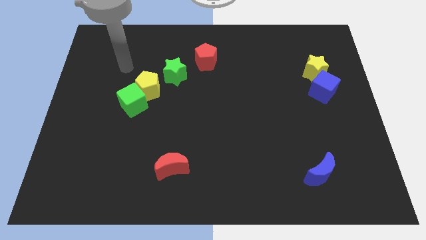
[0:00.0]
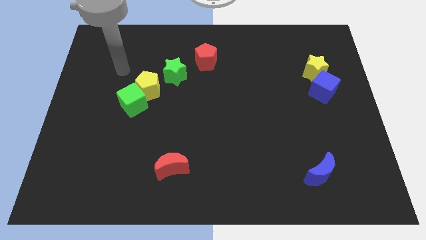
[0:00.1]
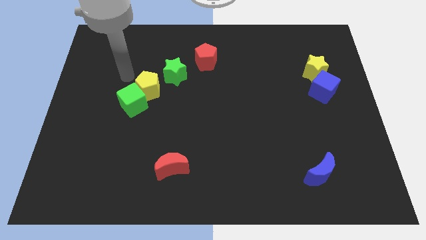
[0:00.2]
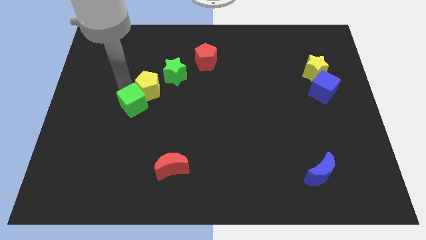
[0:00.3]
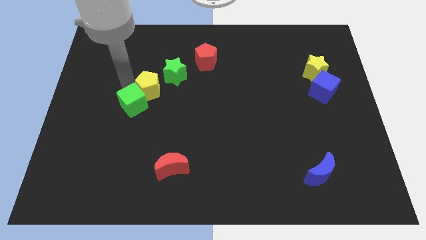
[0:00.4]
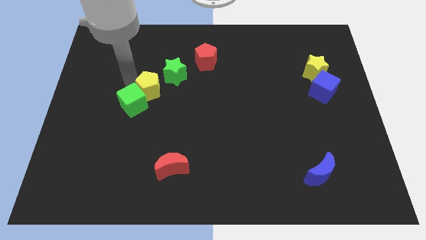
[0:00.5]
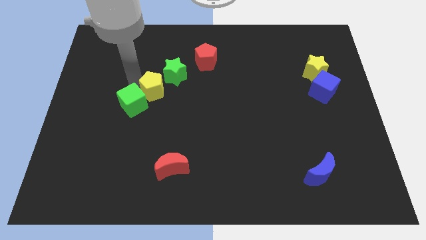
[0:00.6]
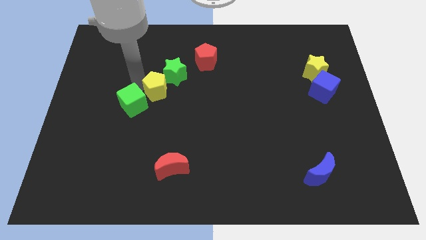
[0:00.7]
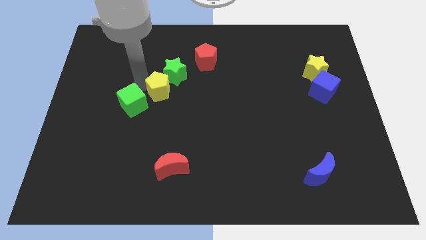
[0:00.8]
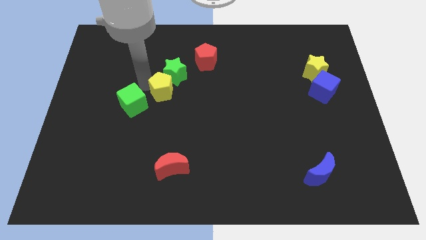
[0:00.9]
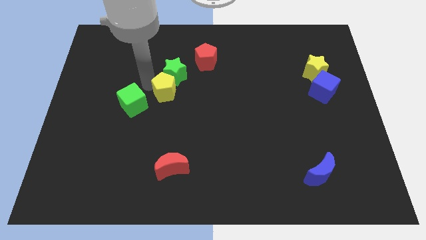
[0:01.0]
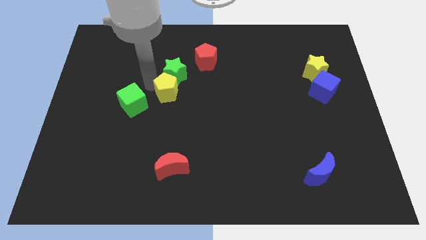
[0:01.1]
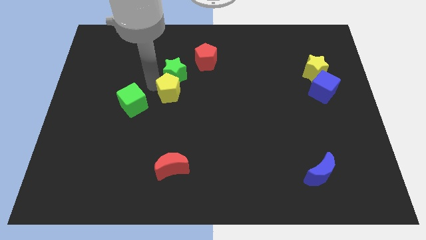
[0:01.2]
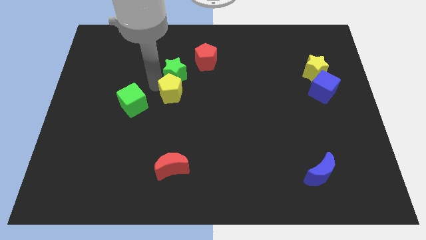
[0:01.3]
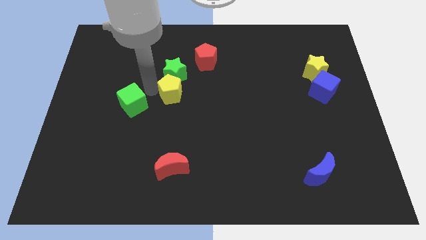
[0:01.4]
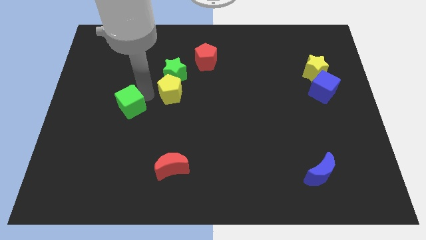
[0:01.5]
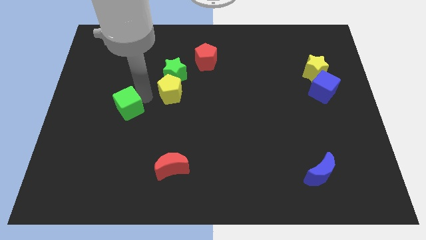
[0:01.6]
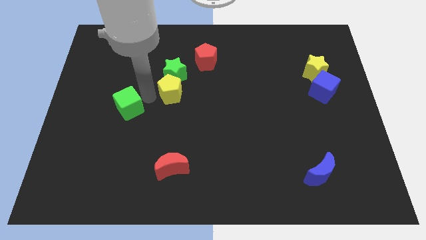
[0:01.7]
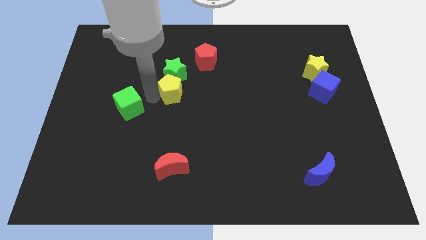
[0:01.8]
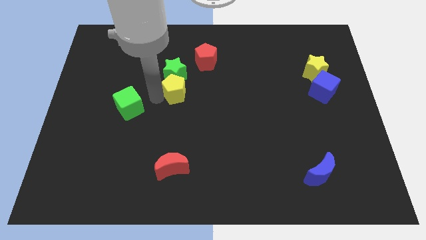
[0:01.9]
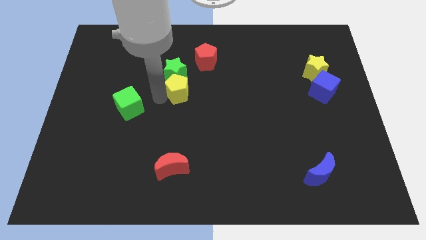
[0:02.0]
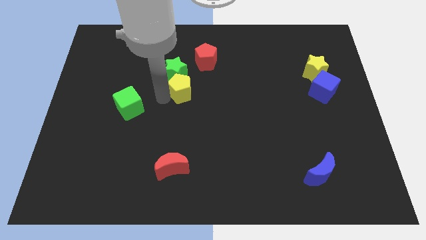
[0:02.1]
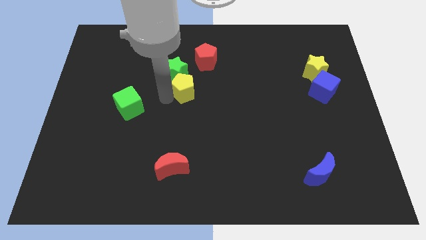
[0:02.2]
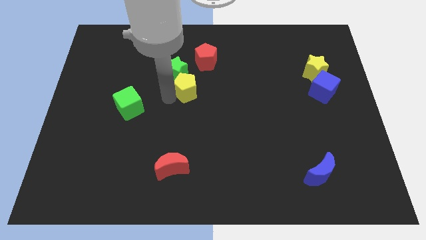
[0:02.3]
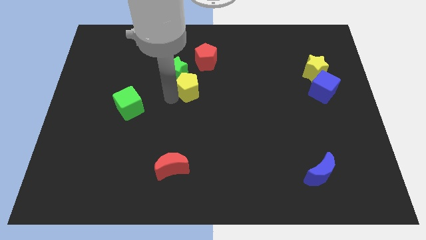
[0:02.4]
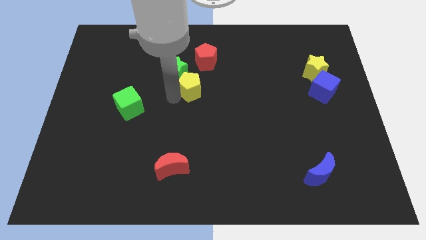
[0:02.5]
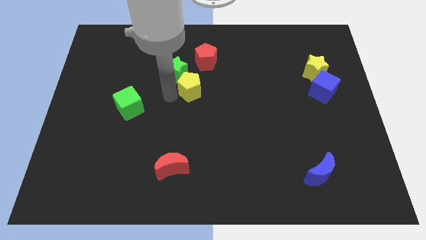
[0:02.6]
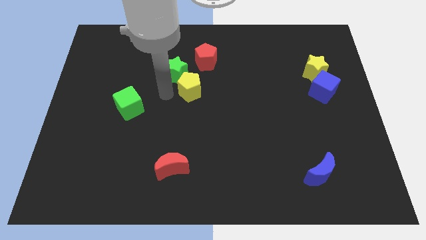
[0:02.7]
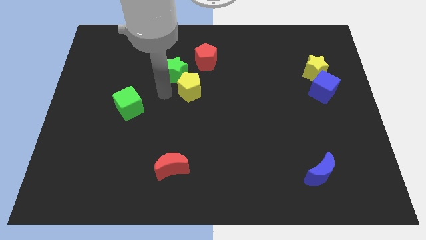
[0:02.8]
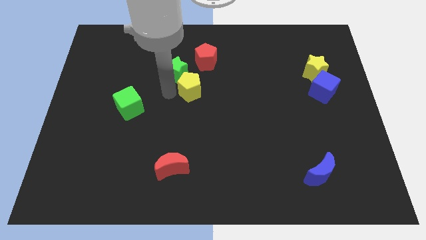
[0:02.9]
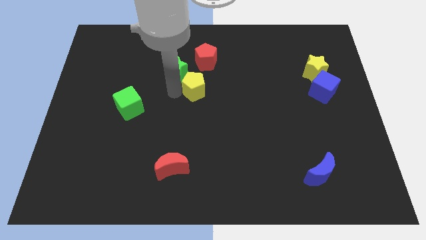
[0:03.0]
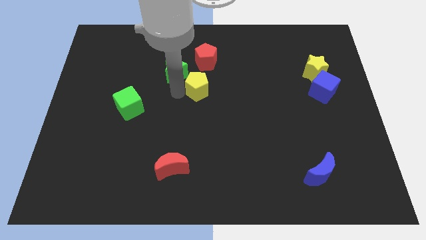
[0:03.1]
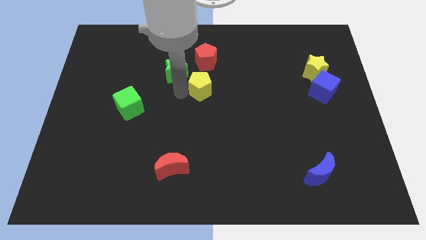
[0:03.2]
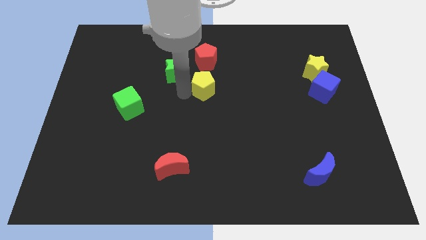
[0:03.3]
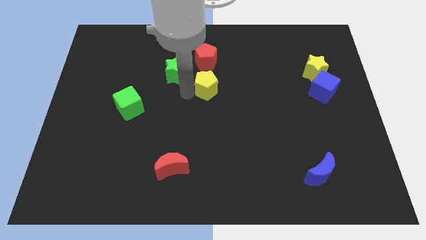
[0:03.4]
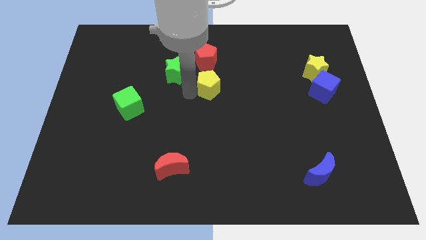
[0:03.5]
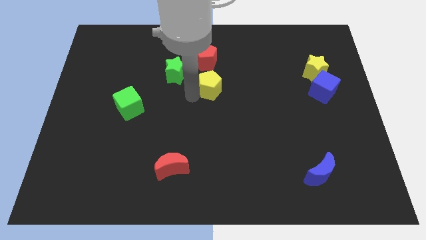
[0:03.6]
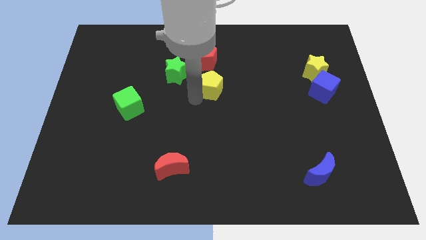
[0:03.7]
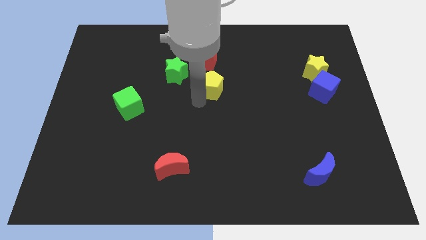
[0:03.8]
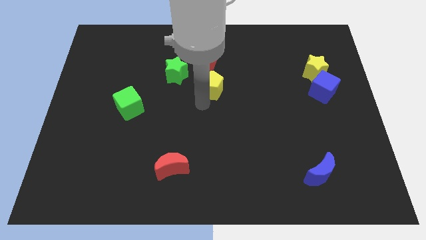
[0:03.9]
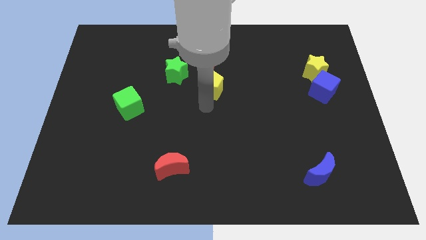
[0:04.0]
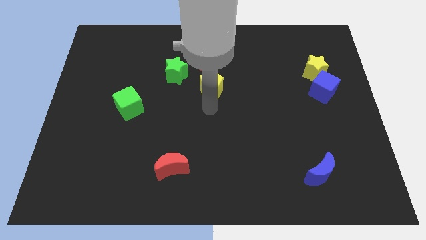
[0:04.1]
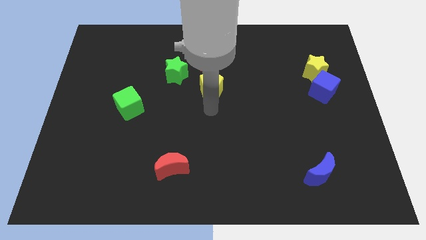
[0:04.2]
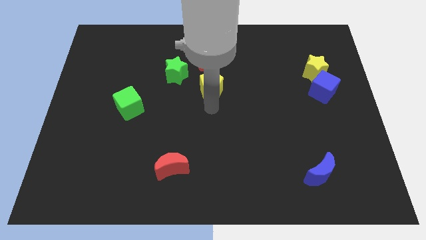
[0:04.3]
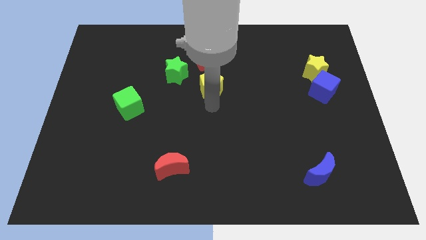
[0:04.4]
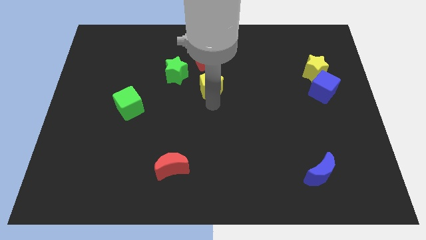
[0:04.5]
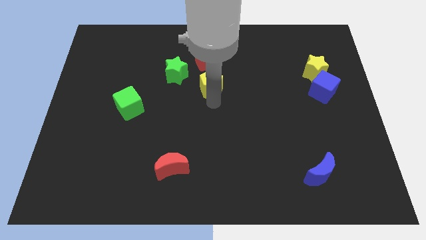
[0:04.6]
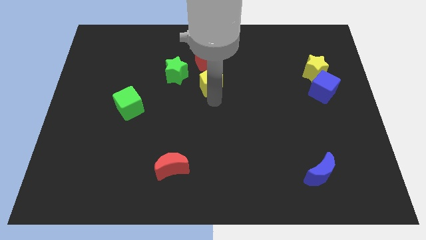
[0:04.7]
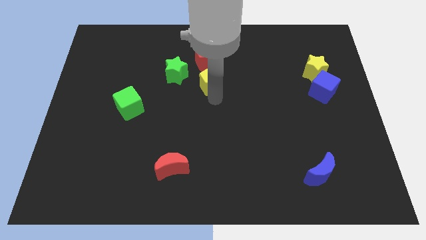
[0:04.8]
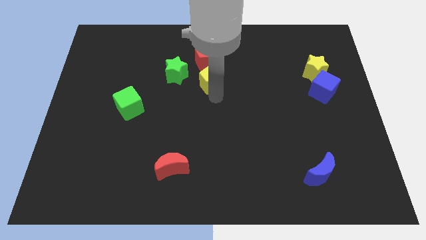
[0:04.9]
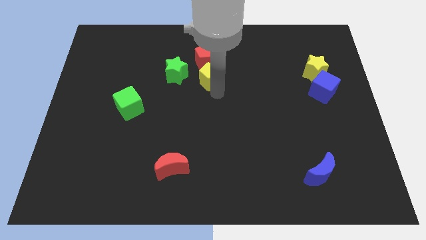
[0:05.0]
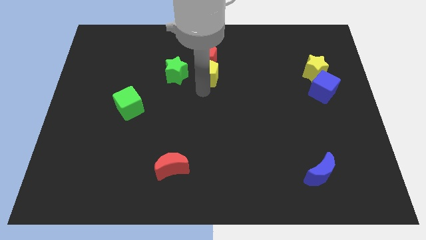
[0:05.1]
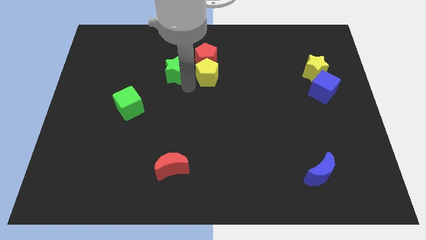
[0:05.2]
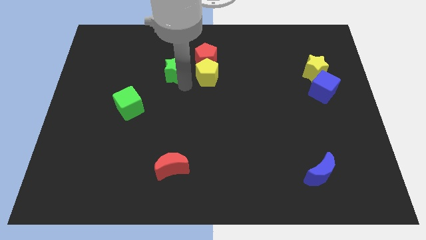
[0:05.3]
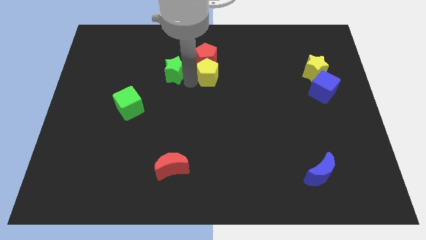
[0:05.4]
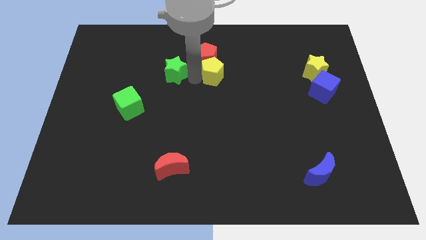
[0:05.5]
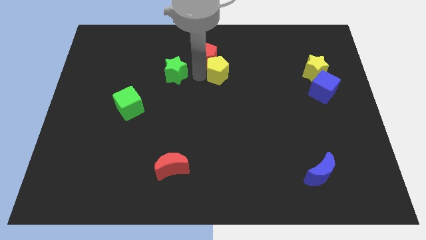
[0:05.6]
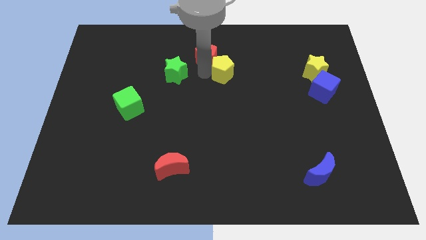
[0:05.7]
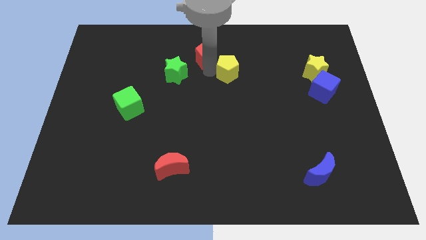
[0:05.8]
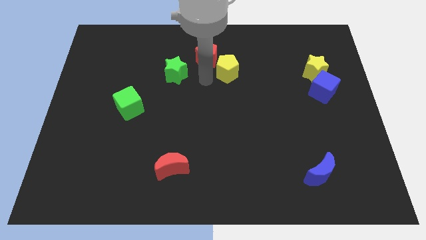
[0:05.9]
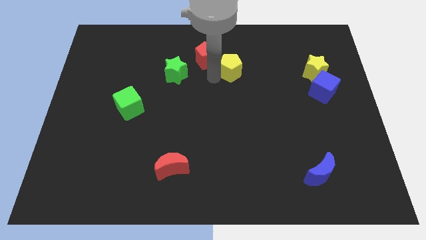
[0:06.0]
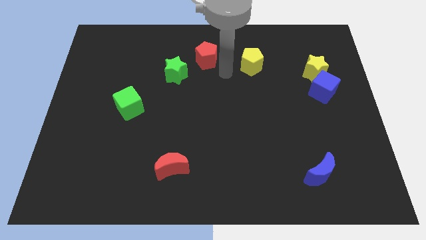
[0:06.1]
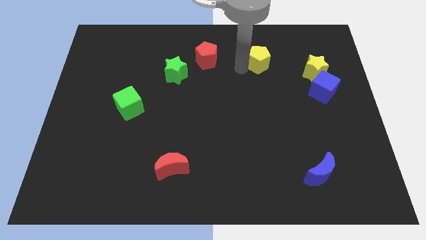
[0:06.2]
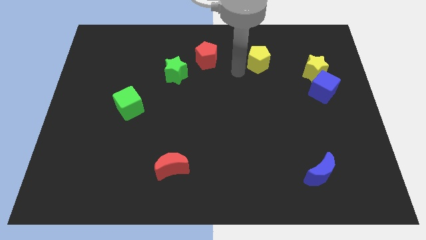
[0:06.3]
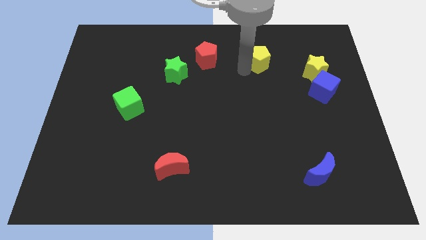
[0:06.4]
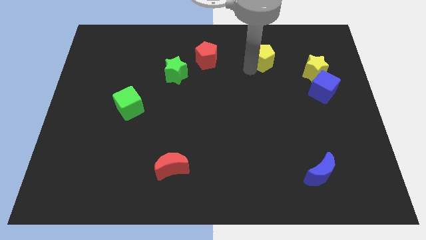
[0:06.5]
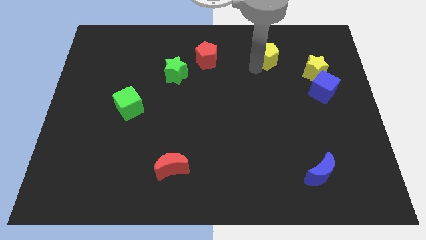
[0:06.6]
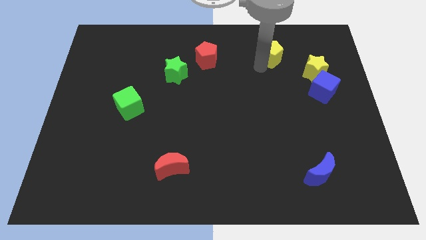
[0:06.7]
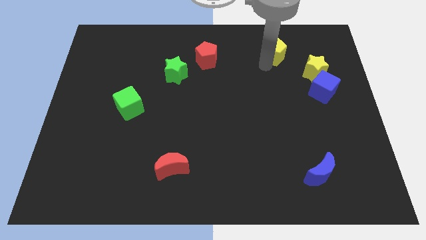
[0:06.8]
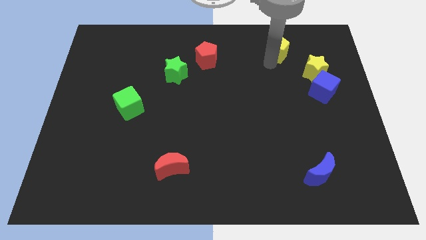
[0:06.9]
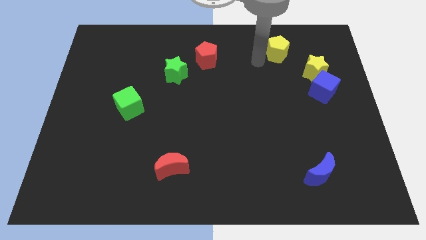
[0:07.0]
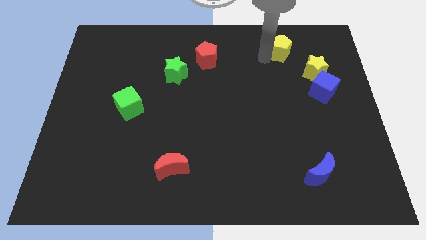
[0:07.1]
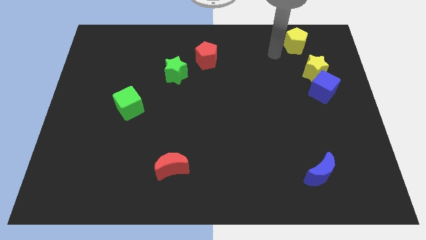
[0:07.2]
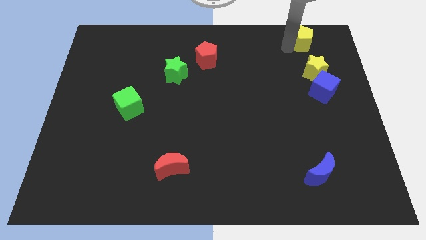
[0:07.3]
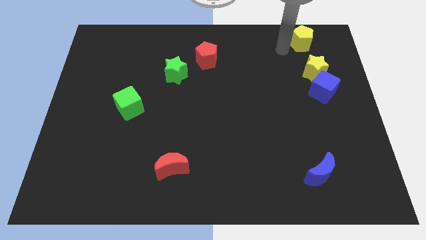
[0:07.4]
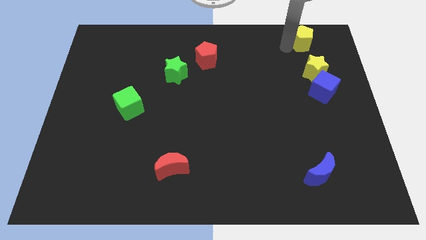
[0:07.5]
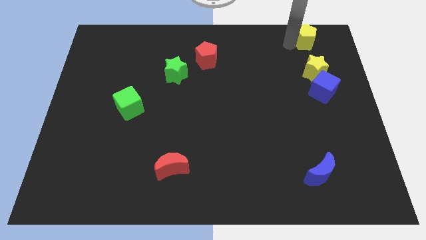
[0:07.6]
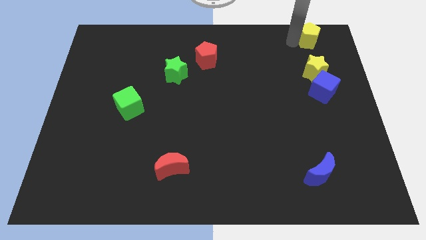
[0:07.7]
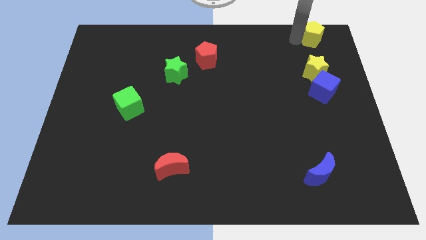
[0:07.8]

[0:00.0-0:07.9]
push the yellow pentagon to the top right of the board
